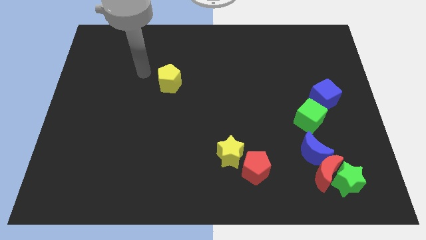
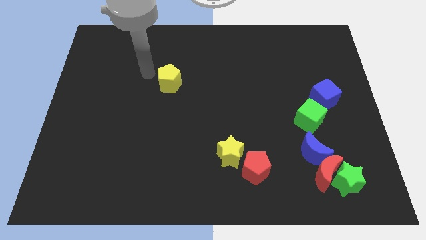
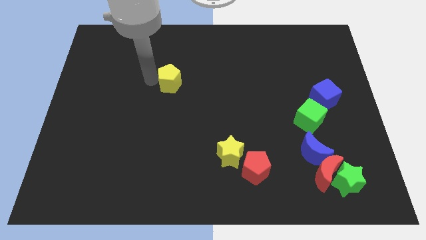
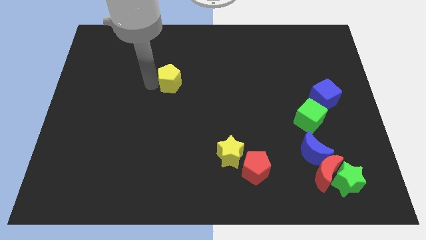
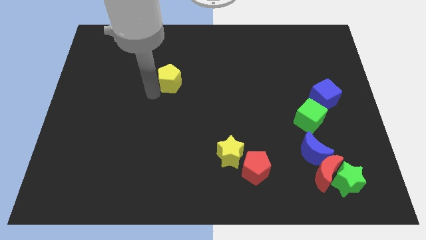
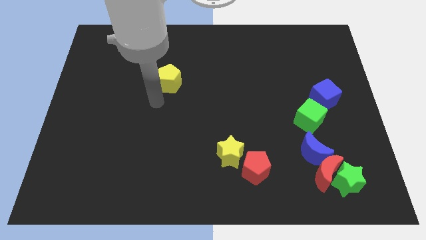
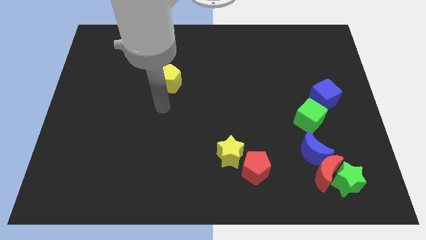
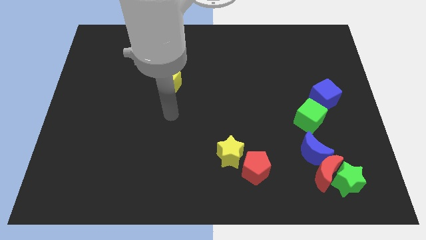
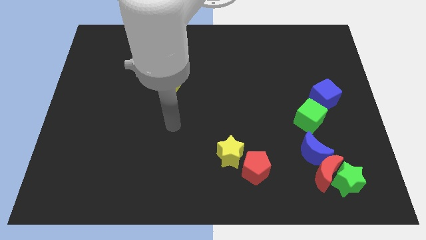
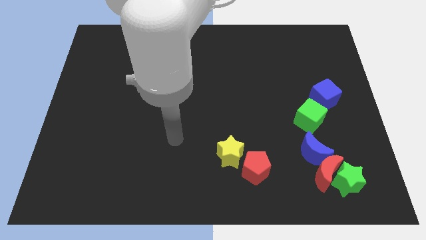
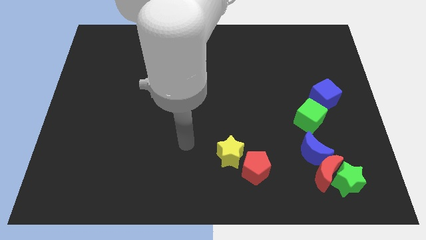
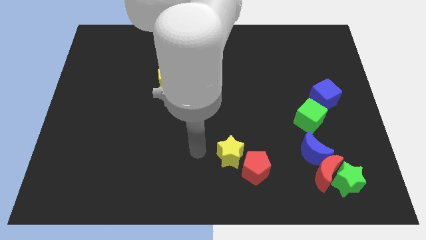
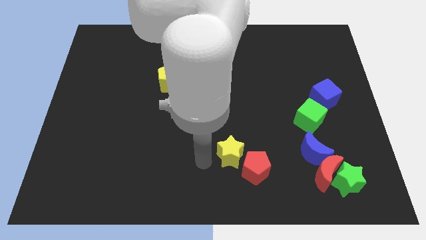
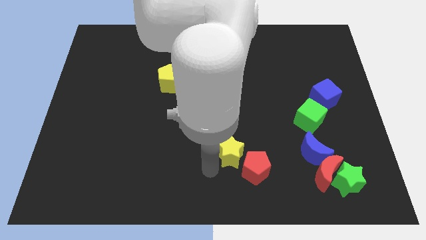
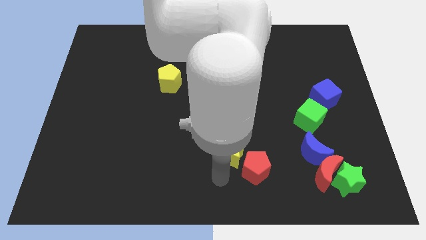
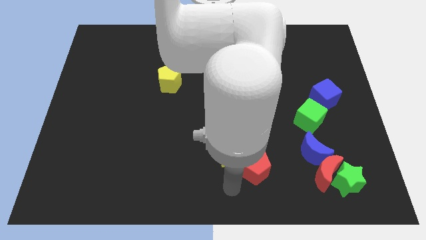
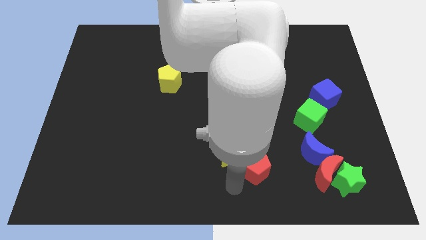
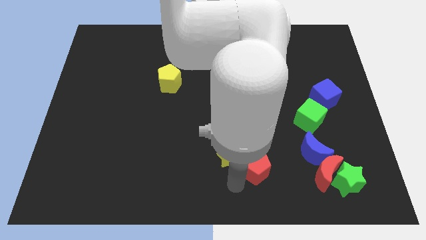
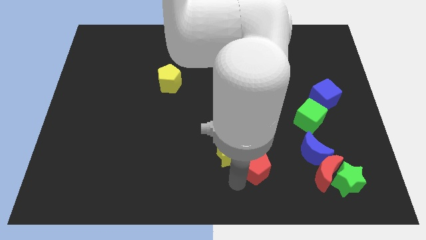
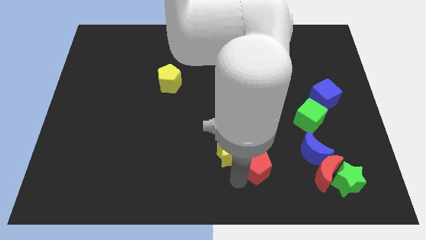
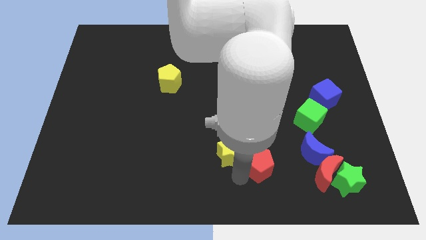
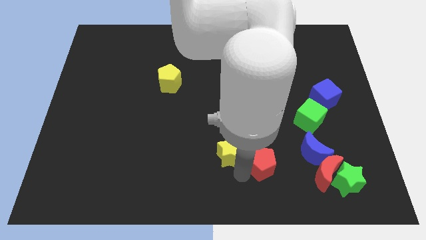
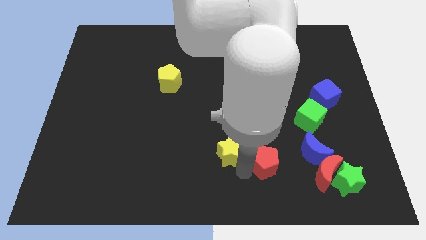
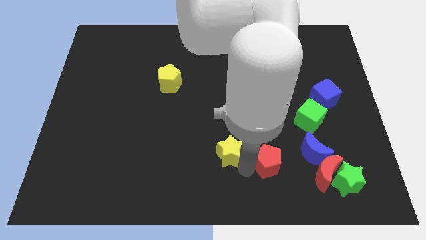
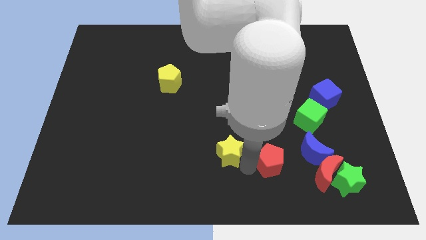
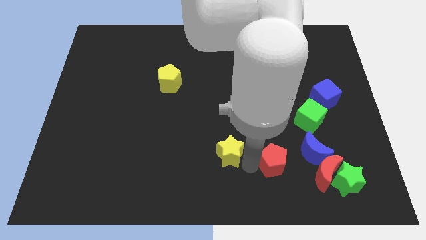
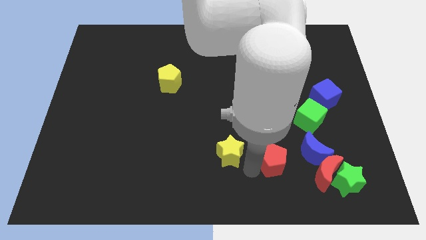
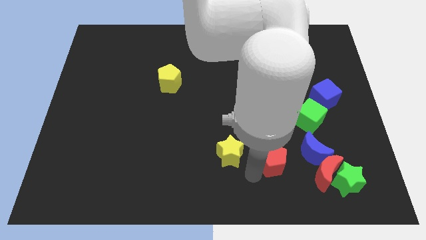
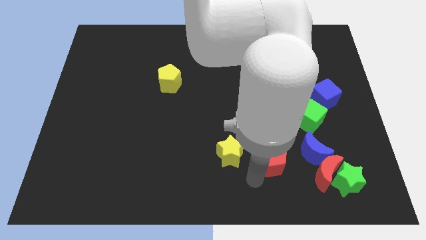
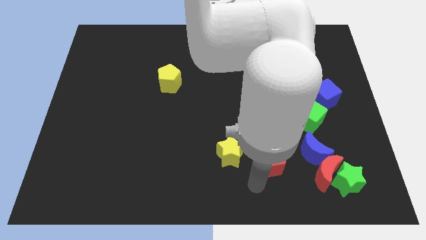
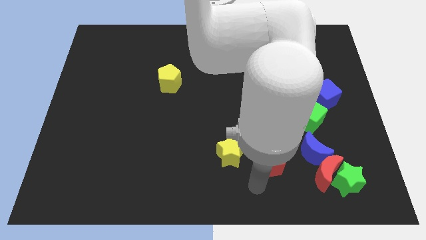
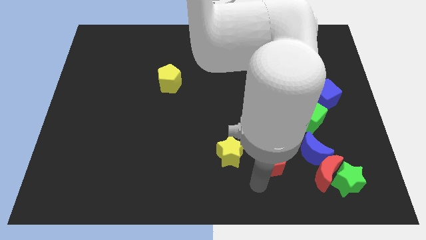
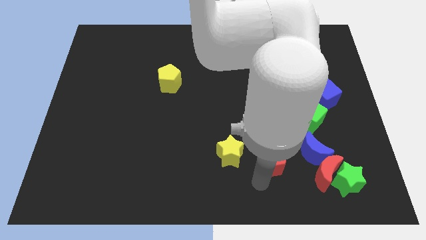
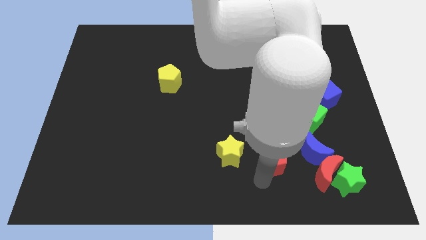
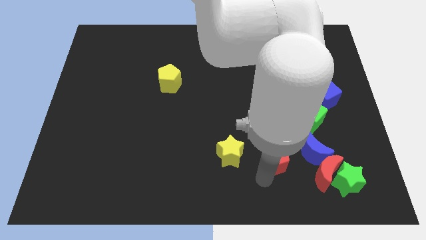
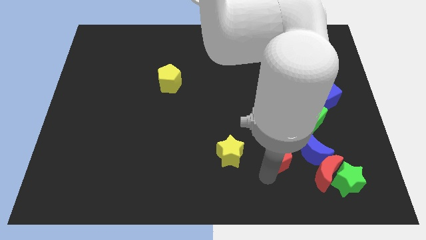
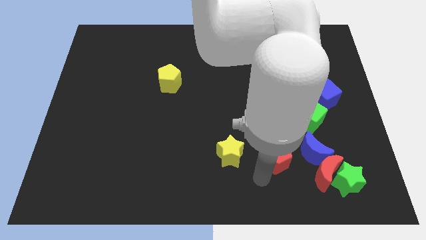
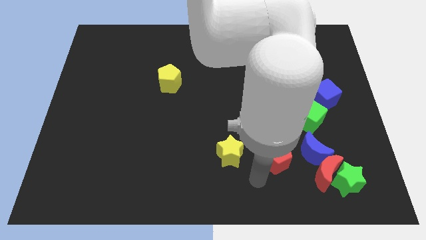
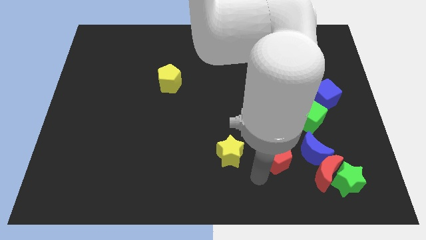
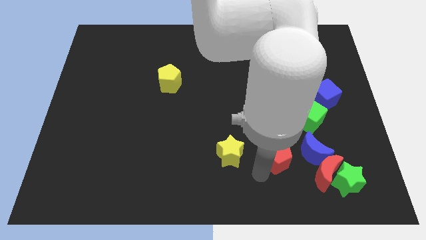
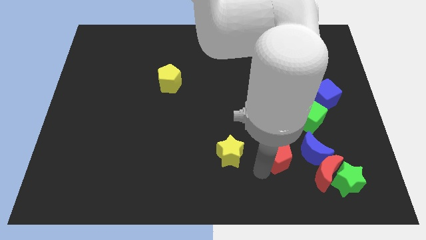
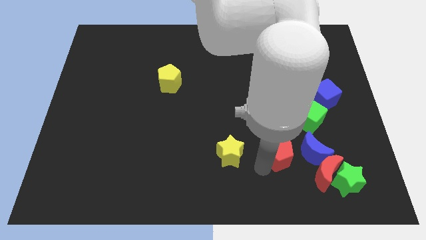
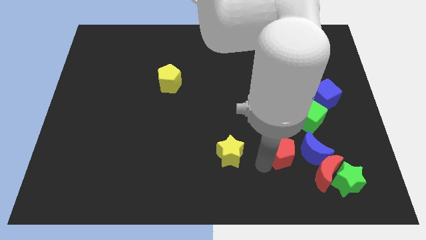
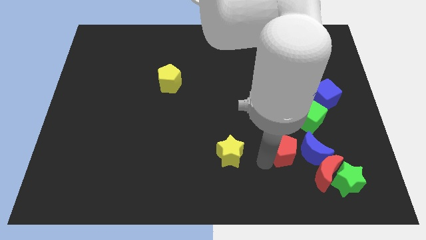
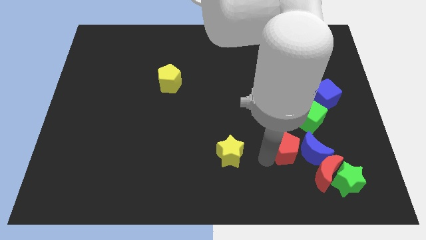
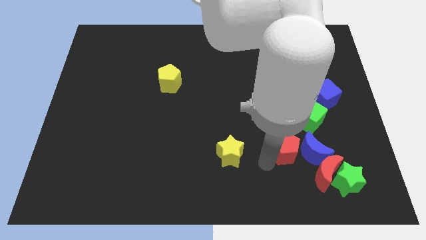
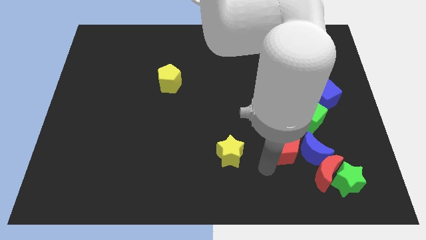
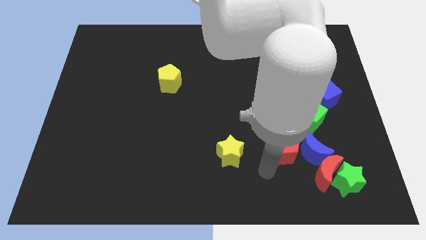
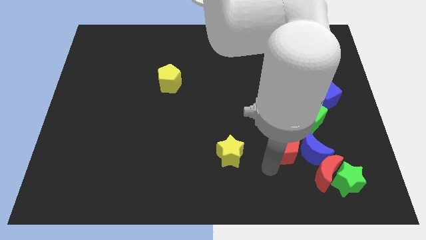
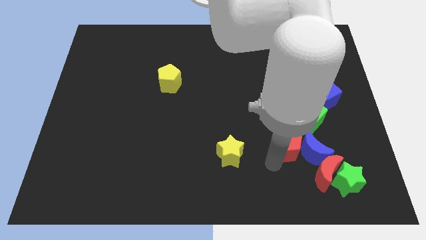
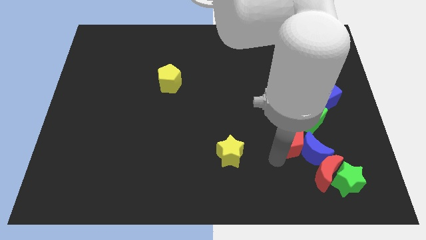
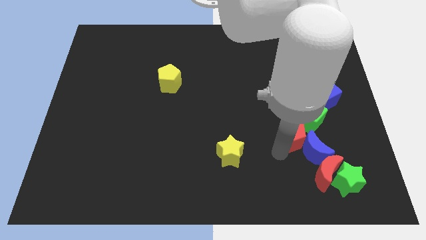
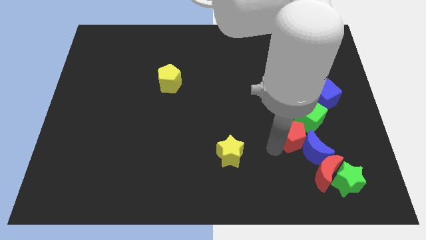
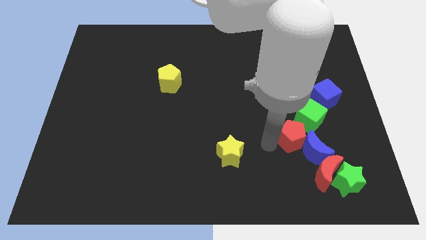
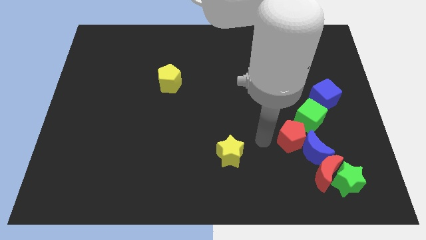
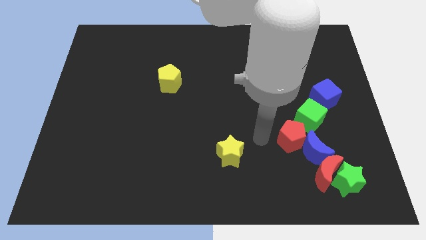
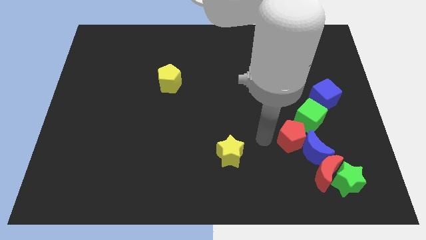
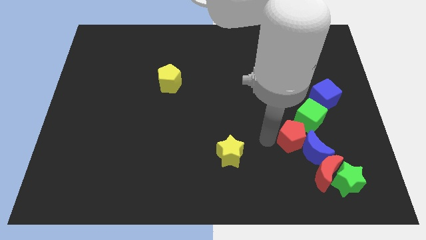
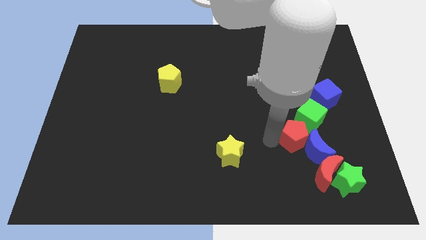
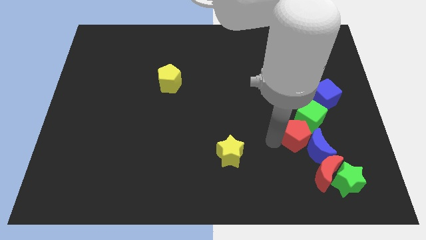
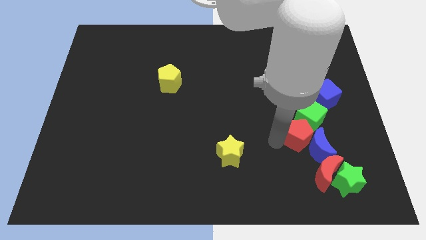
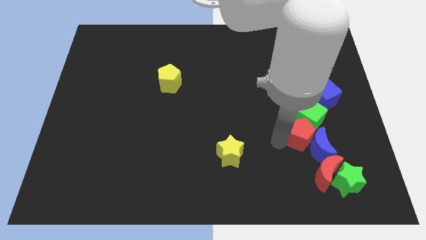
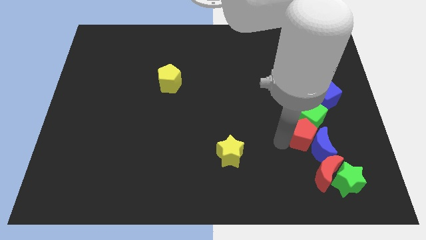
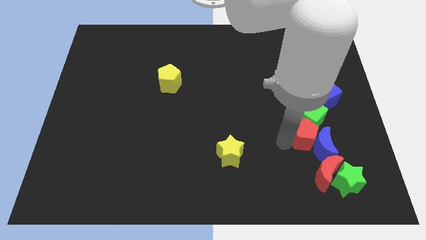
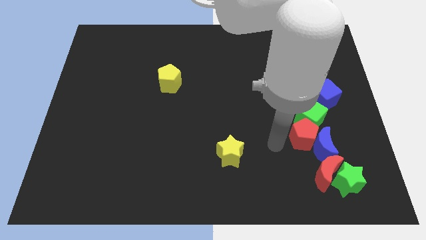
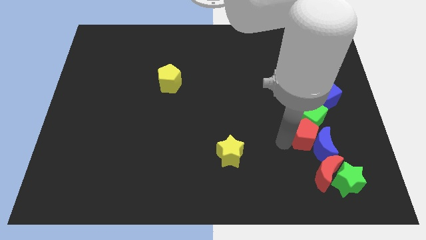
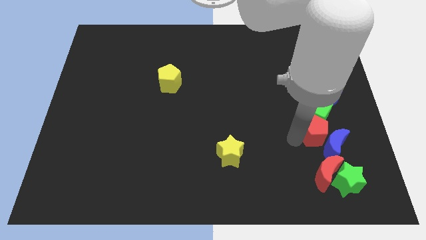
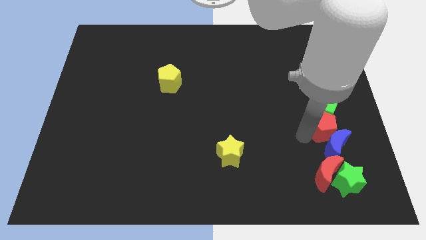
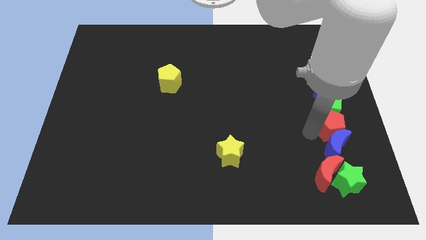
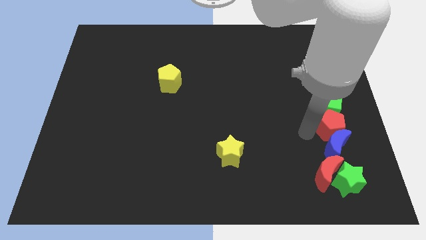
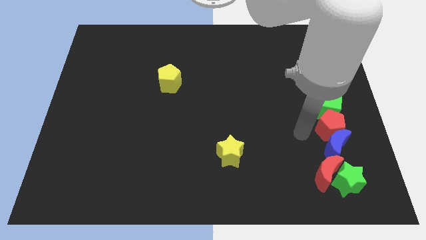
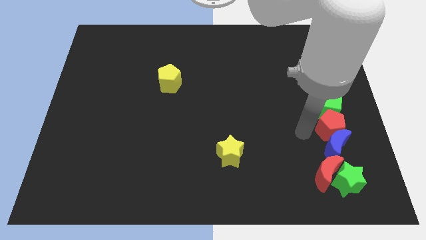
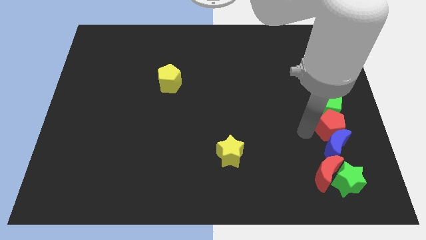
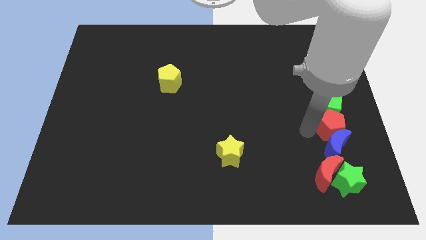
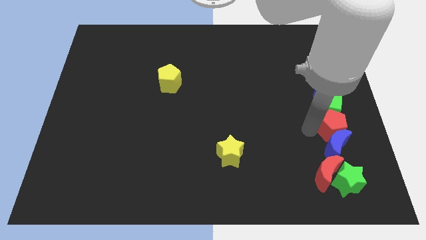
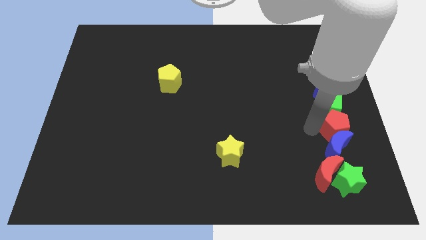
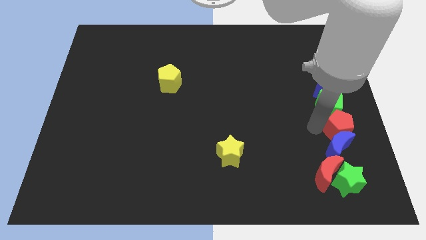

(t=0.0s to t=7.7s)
slide the red pentagon to the center right
